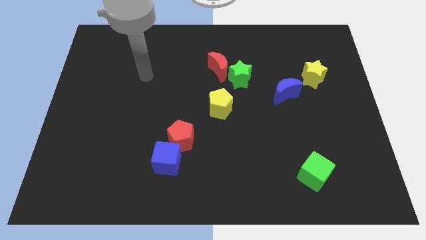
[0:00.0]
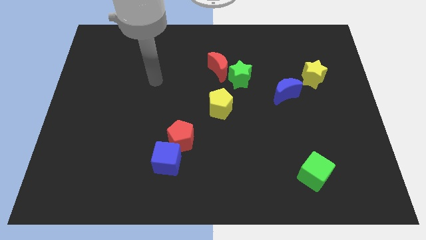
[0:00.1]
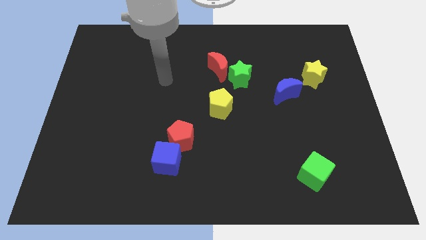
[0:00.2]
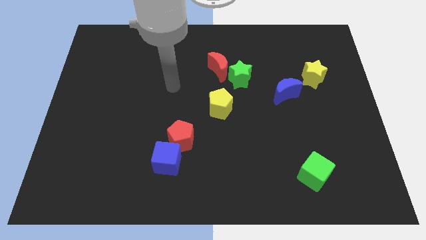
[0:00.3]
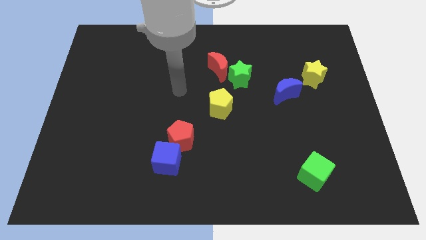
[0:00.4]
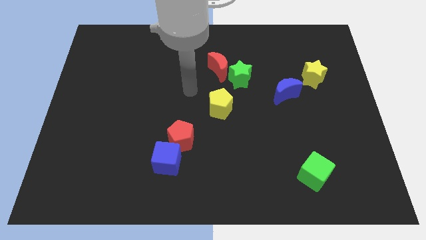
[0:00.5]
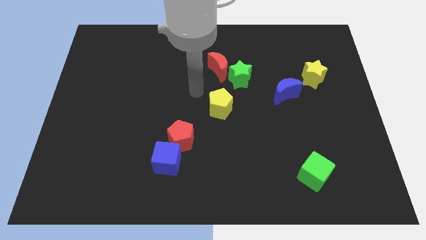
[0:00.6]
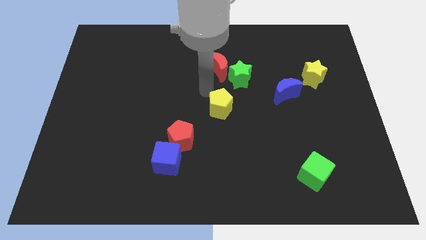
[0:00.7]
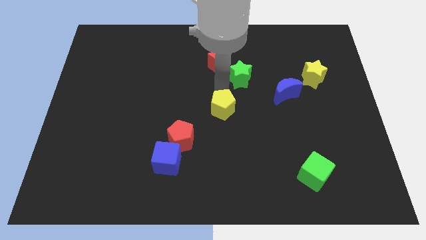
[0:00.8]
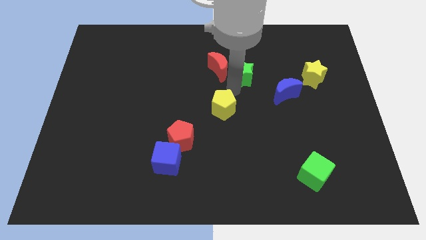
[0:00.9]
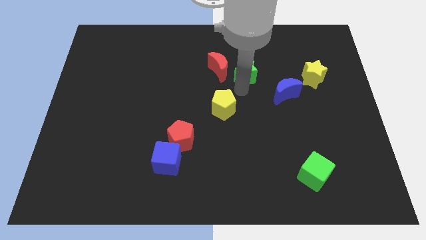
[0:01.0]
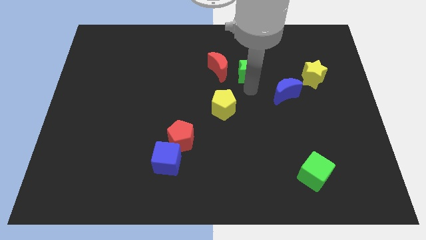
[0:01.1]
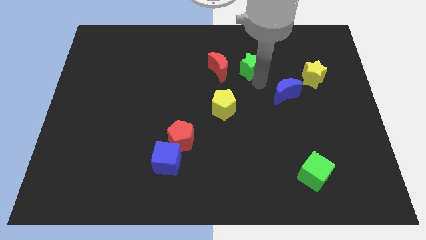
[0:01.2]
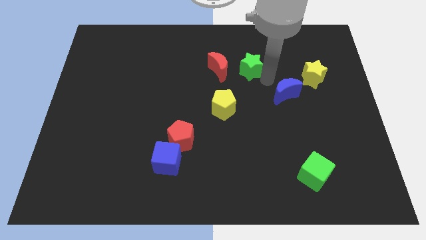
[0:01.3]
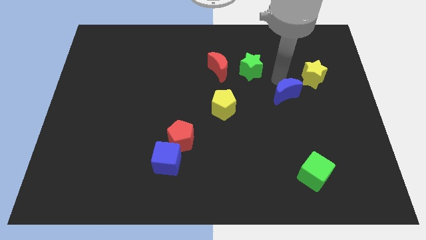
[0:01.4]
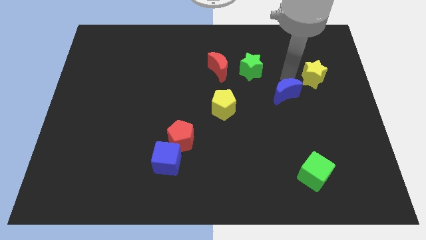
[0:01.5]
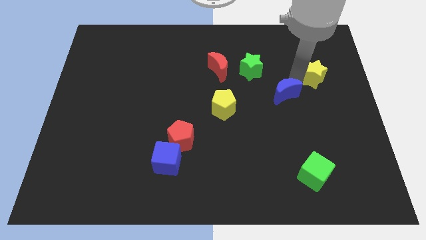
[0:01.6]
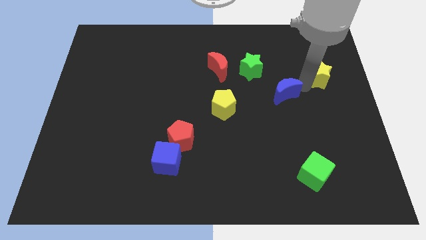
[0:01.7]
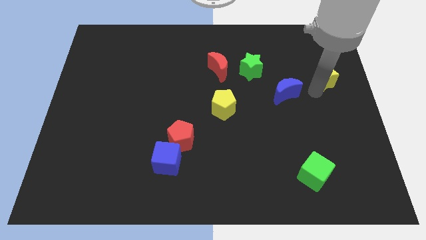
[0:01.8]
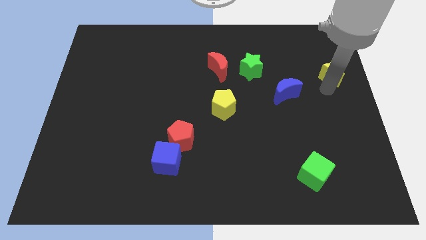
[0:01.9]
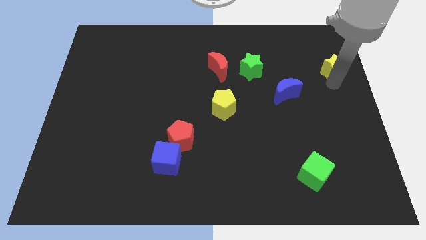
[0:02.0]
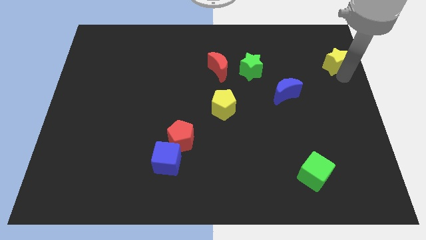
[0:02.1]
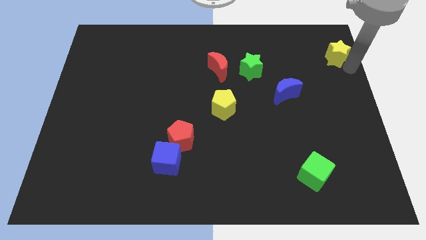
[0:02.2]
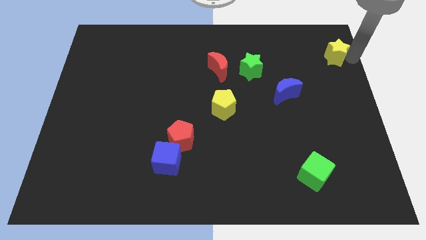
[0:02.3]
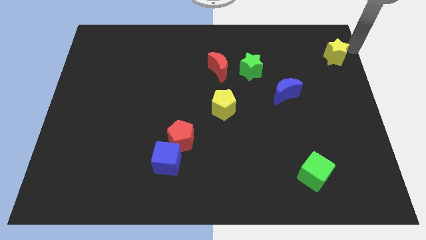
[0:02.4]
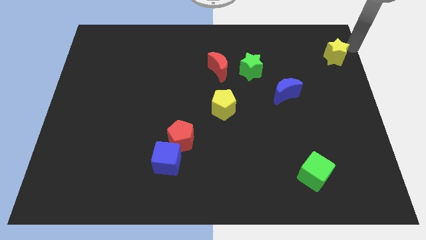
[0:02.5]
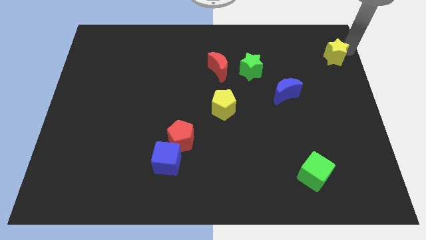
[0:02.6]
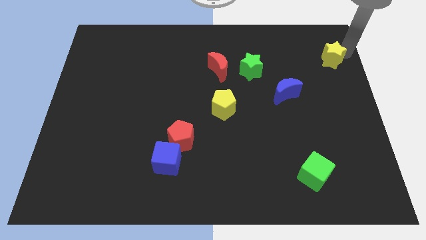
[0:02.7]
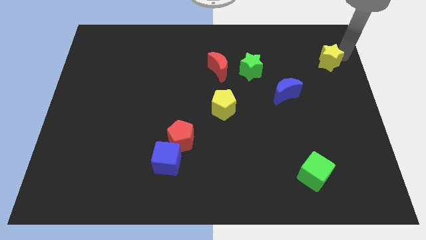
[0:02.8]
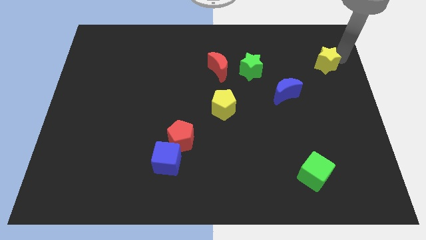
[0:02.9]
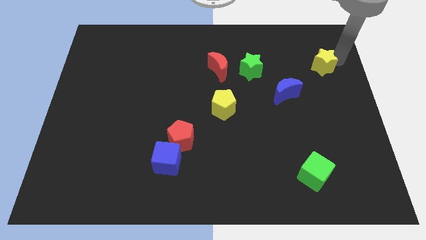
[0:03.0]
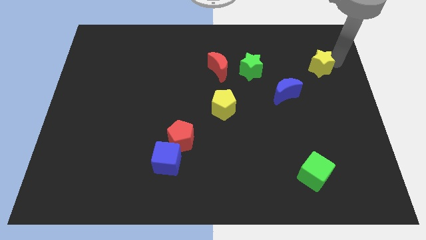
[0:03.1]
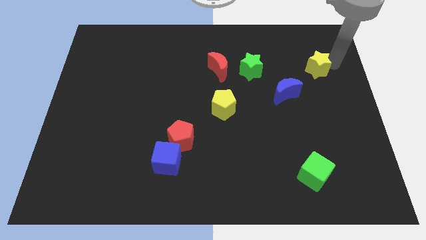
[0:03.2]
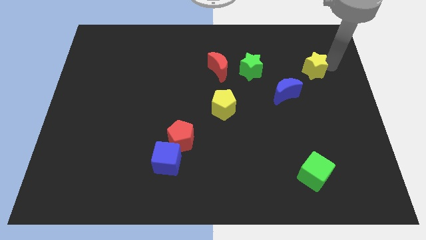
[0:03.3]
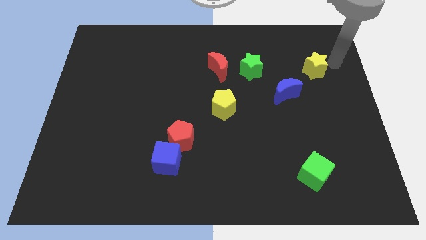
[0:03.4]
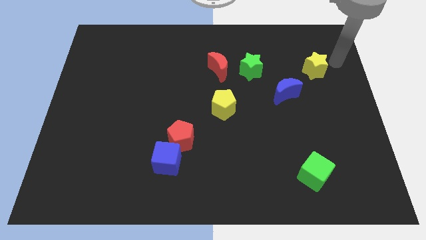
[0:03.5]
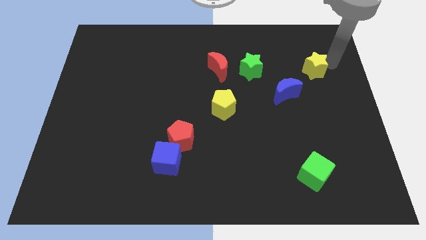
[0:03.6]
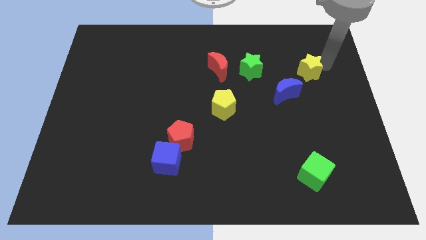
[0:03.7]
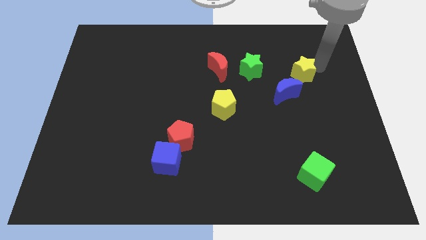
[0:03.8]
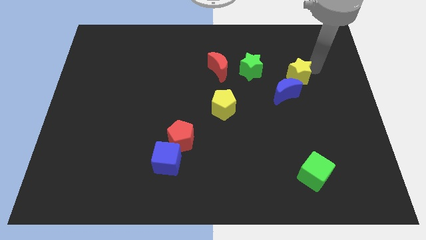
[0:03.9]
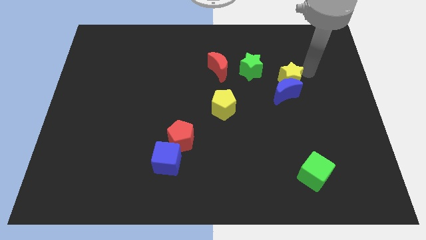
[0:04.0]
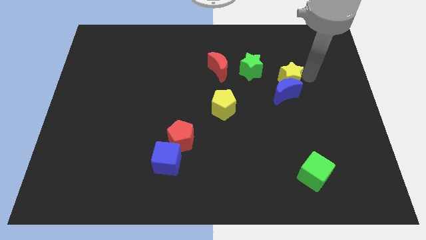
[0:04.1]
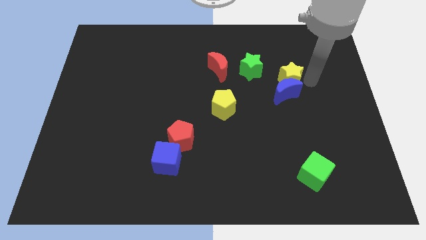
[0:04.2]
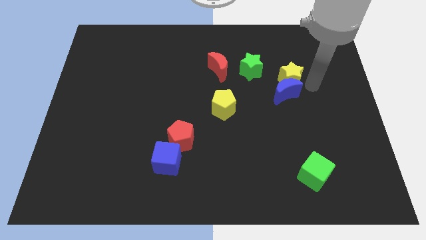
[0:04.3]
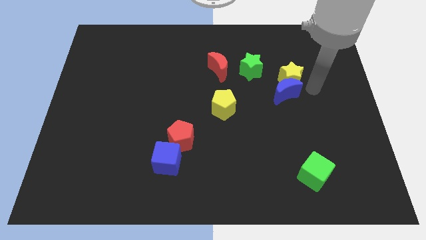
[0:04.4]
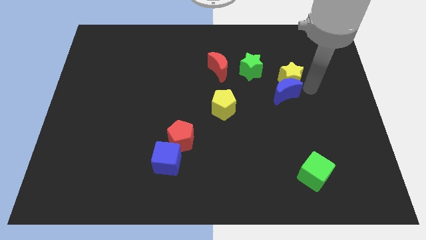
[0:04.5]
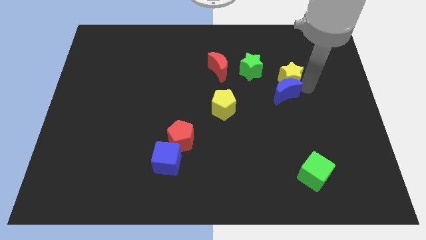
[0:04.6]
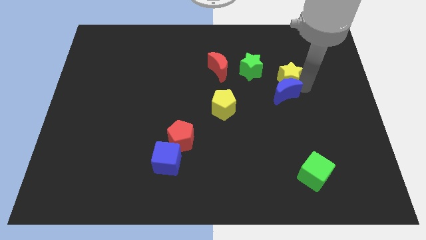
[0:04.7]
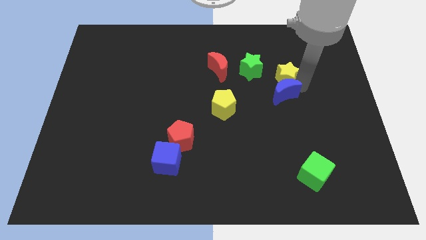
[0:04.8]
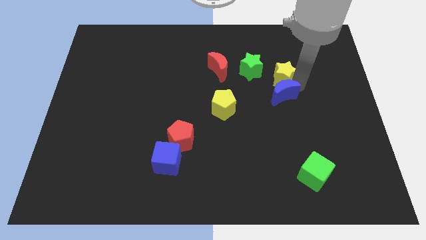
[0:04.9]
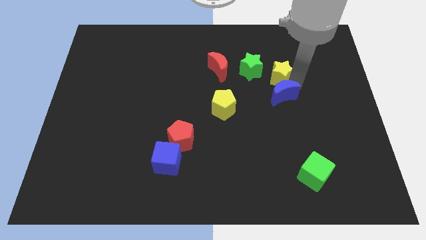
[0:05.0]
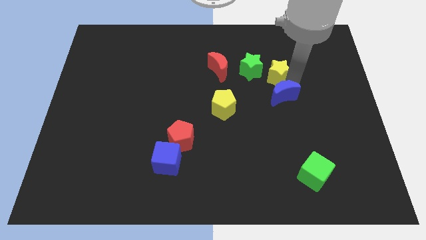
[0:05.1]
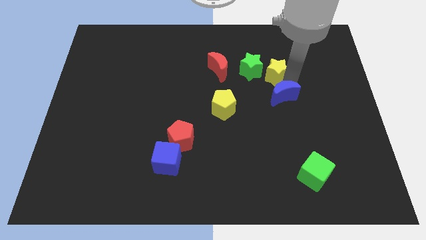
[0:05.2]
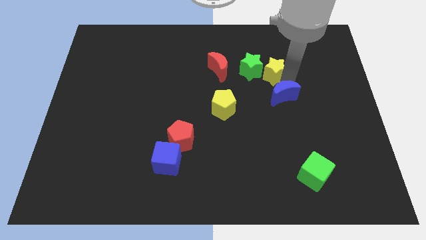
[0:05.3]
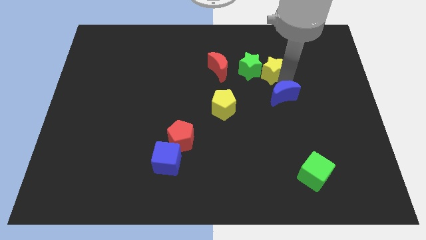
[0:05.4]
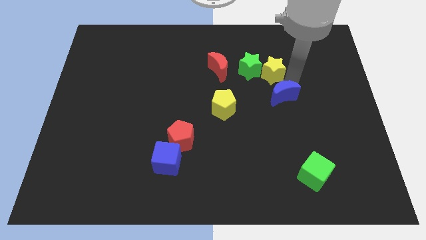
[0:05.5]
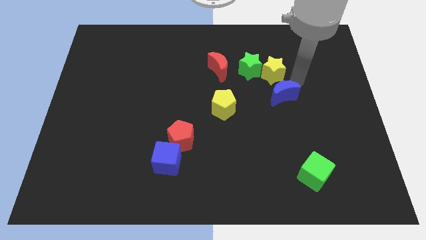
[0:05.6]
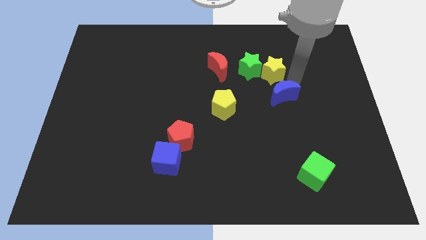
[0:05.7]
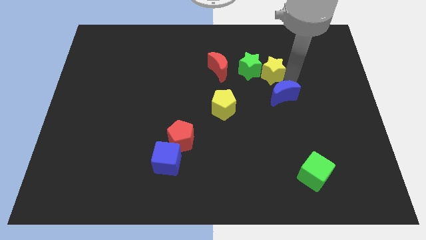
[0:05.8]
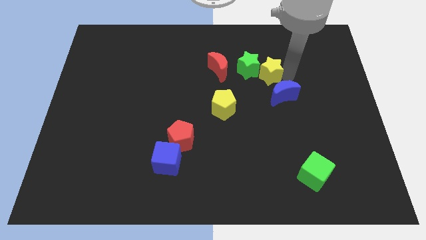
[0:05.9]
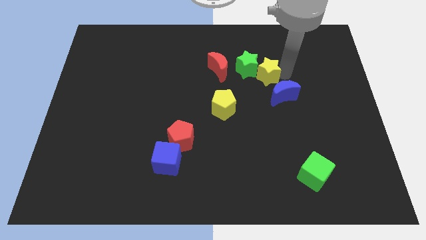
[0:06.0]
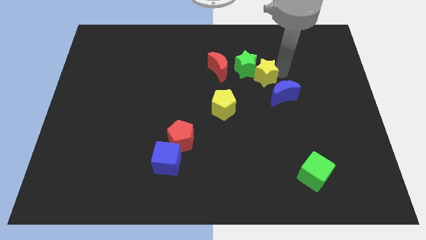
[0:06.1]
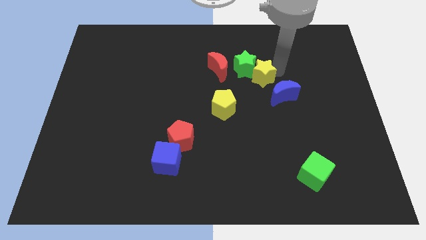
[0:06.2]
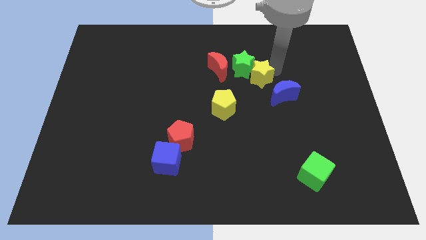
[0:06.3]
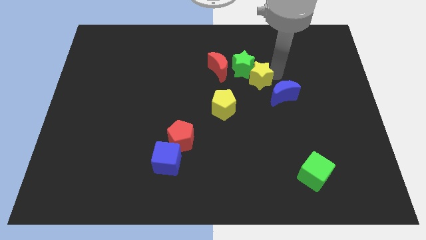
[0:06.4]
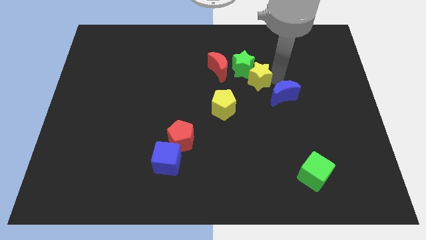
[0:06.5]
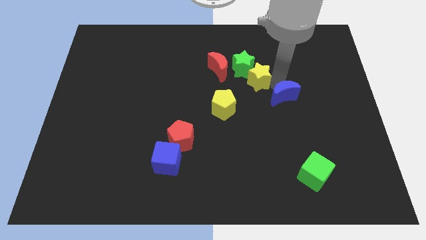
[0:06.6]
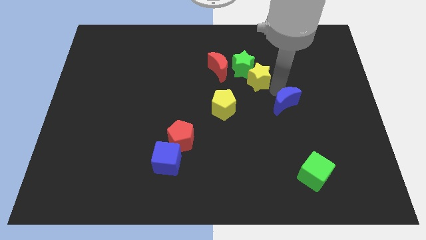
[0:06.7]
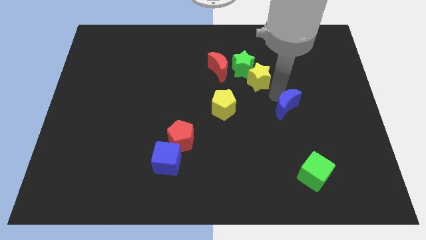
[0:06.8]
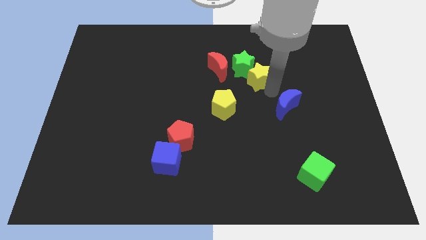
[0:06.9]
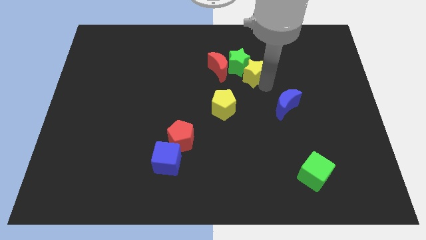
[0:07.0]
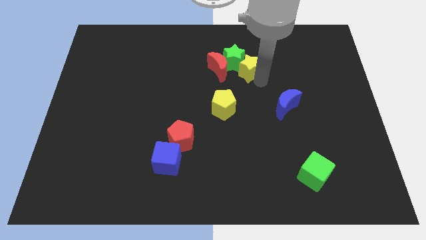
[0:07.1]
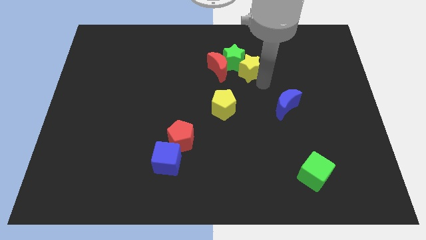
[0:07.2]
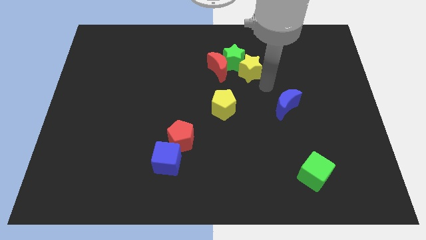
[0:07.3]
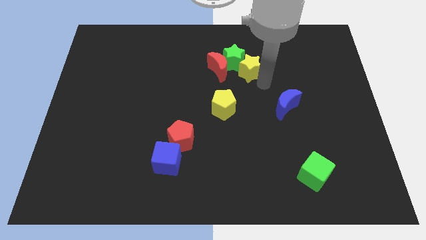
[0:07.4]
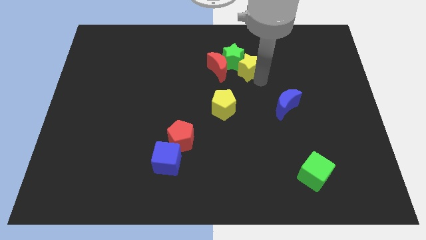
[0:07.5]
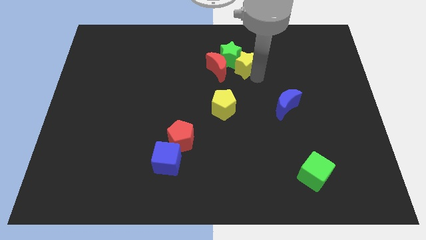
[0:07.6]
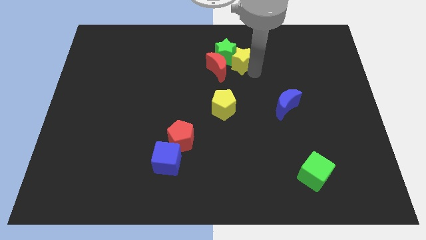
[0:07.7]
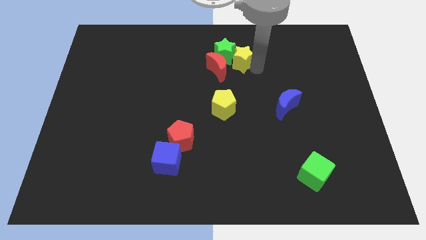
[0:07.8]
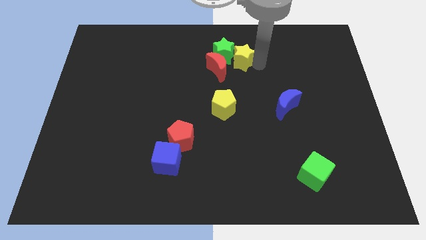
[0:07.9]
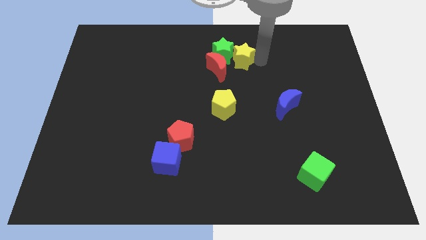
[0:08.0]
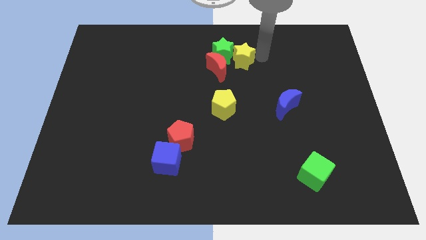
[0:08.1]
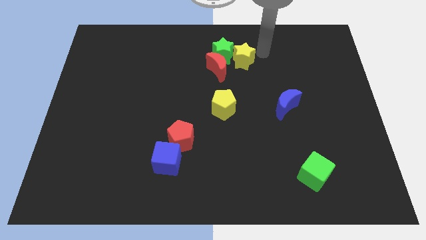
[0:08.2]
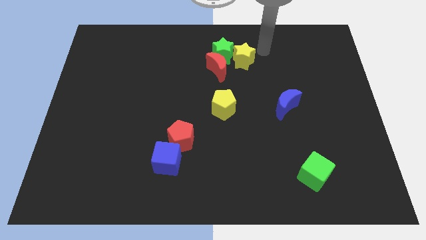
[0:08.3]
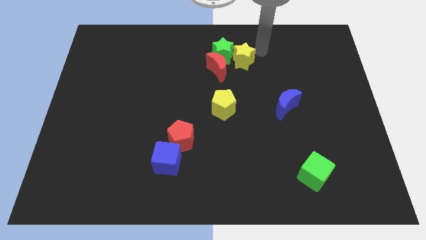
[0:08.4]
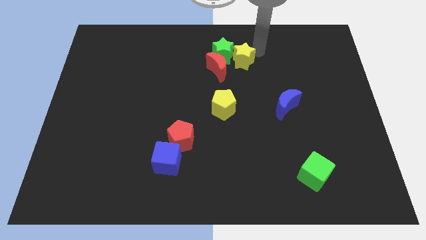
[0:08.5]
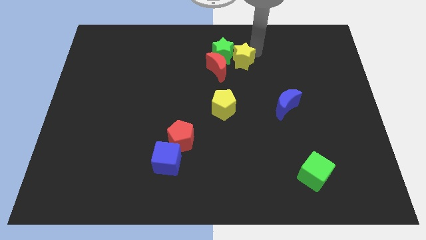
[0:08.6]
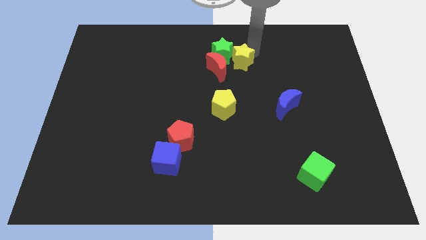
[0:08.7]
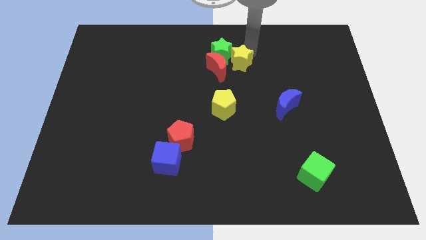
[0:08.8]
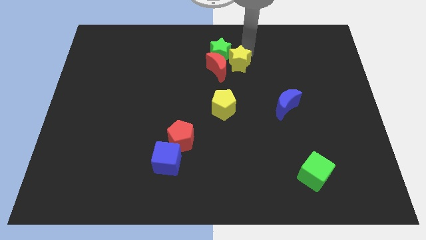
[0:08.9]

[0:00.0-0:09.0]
push the yellow star towards the red moon
